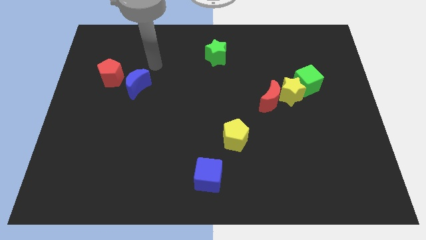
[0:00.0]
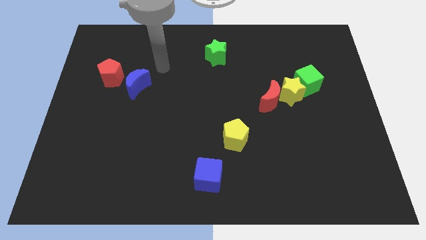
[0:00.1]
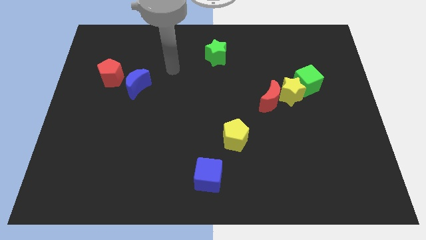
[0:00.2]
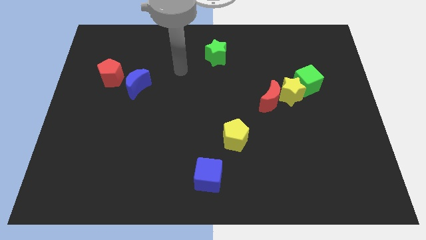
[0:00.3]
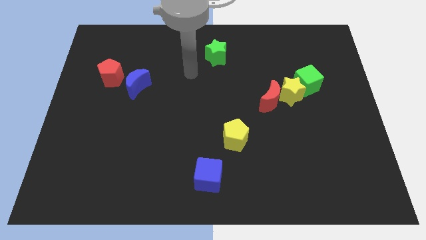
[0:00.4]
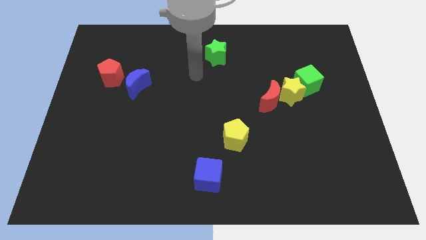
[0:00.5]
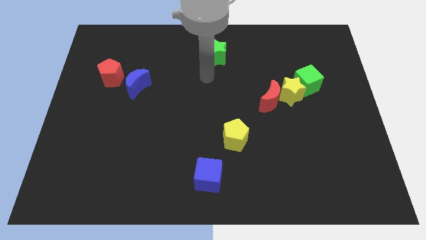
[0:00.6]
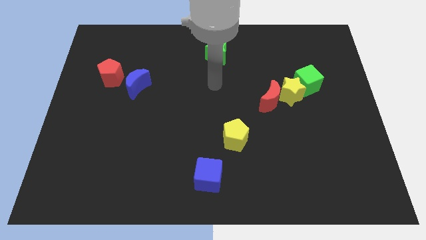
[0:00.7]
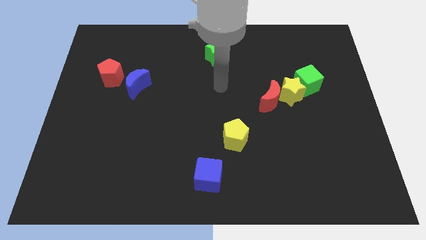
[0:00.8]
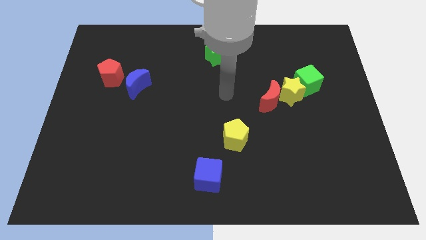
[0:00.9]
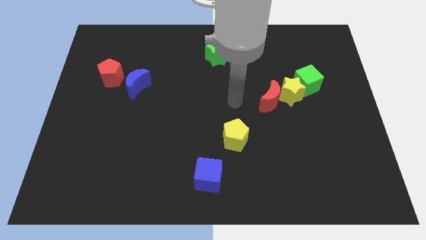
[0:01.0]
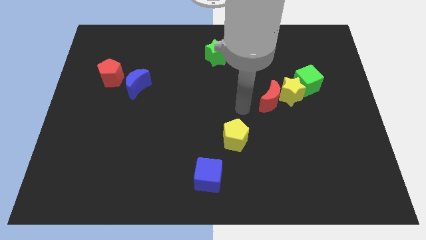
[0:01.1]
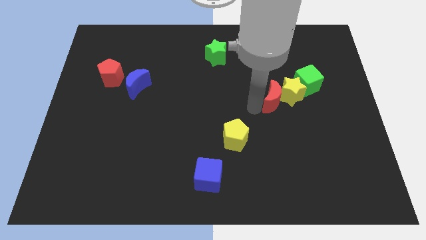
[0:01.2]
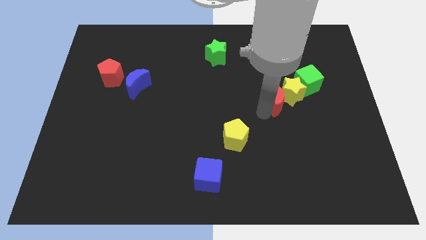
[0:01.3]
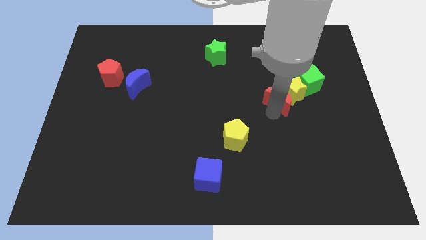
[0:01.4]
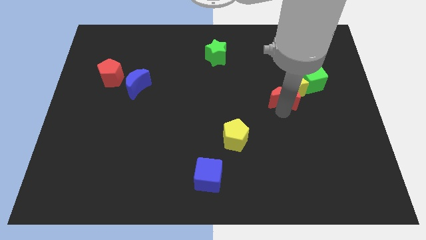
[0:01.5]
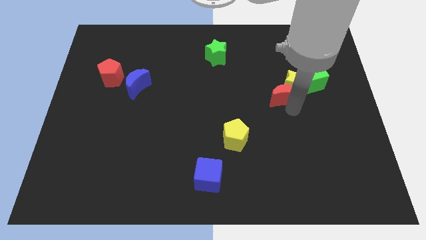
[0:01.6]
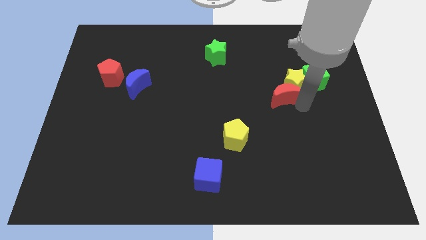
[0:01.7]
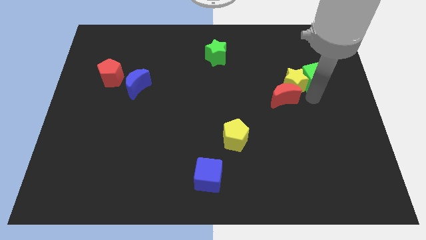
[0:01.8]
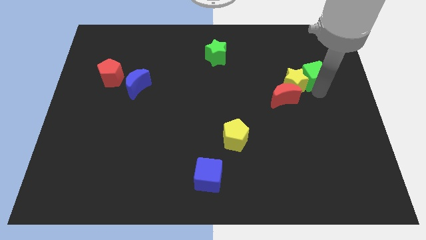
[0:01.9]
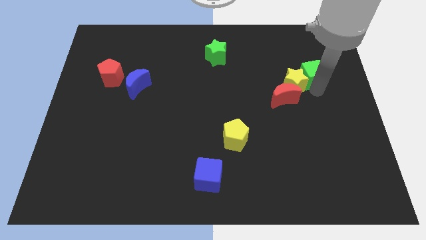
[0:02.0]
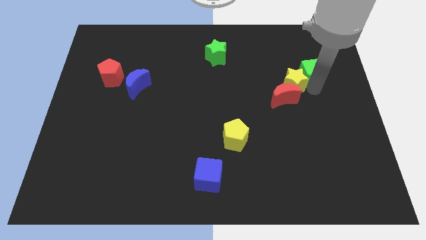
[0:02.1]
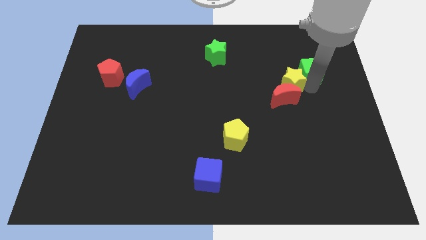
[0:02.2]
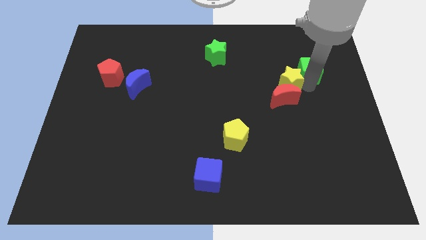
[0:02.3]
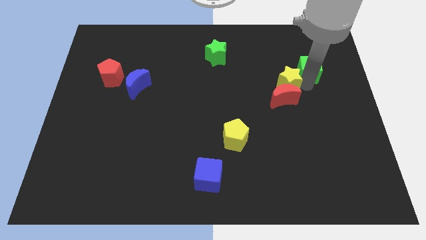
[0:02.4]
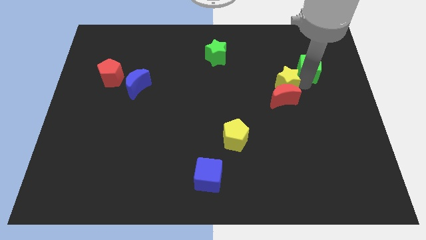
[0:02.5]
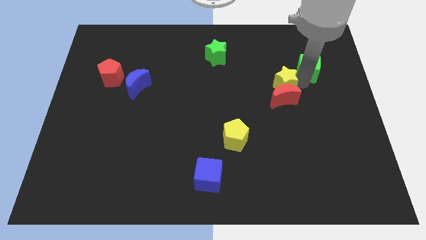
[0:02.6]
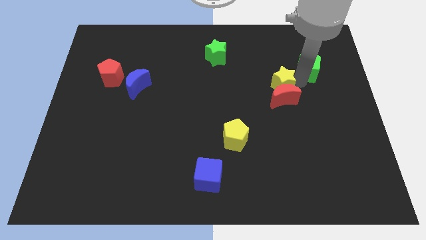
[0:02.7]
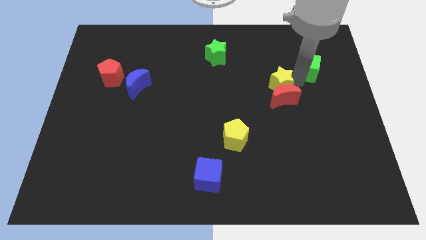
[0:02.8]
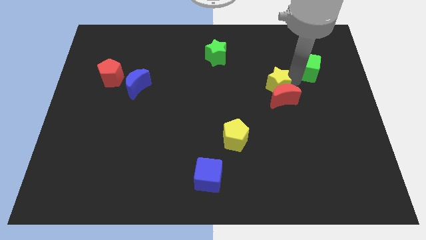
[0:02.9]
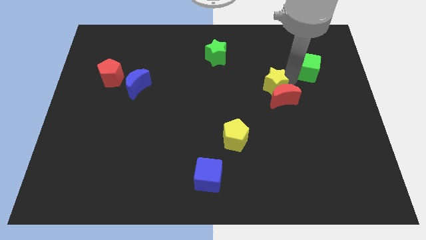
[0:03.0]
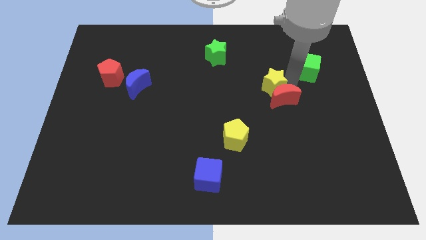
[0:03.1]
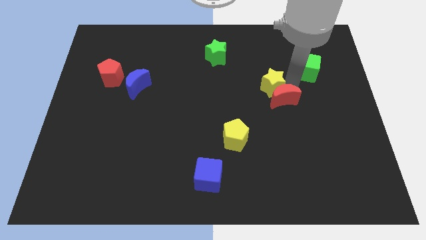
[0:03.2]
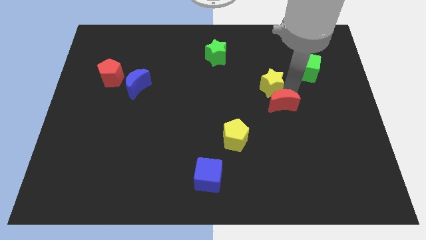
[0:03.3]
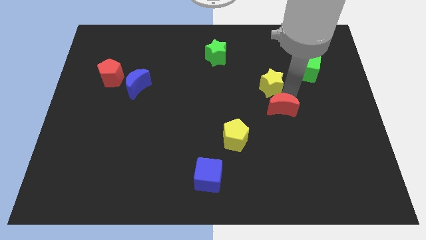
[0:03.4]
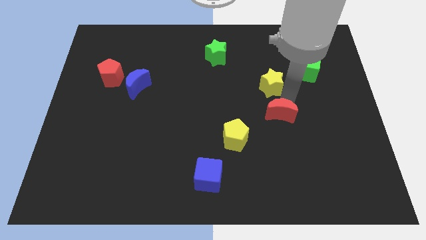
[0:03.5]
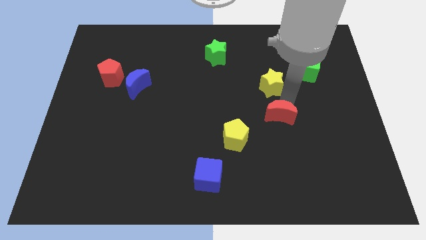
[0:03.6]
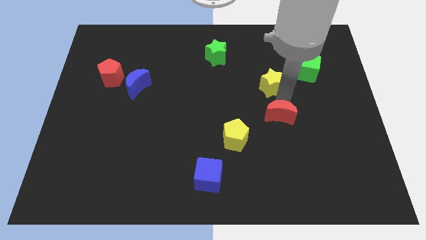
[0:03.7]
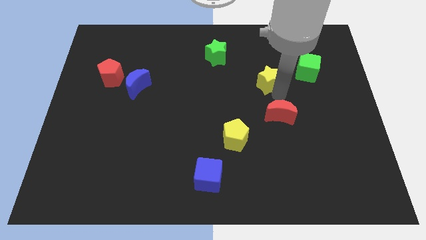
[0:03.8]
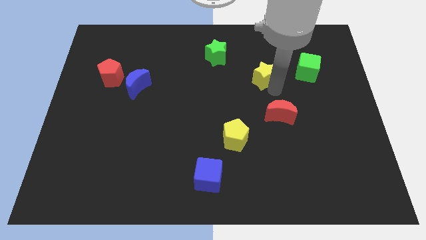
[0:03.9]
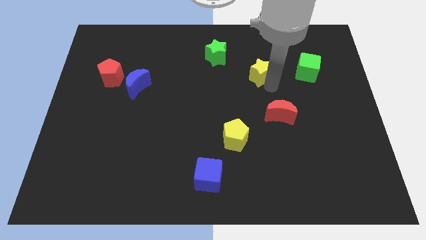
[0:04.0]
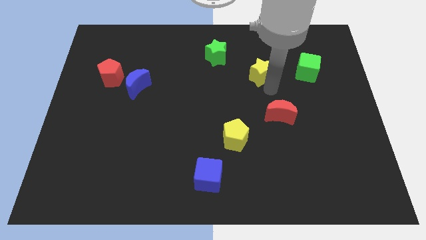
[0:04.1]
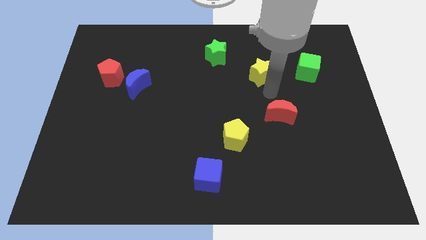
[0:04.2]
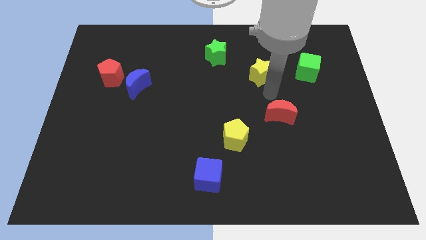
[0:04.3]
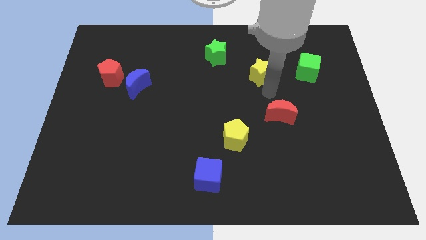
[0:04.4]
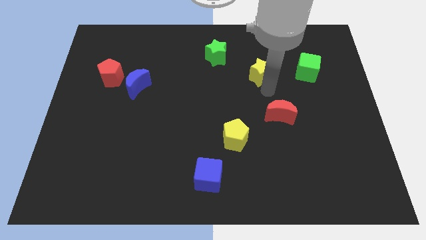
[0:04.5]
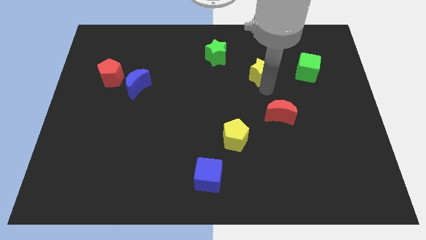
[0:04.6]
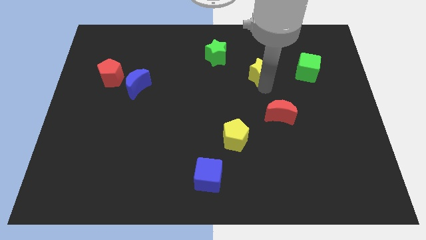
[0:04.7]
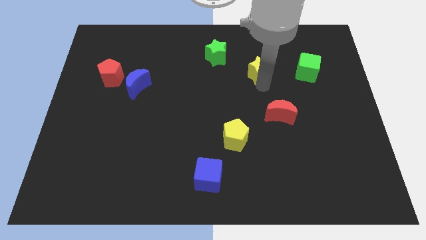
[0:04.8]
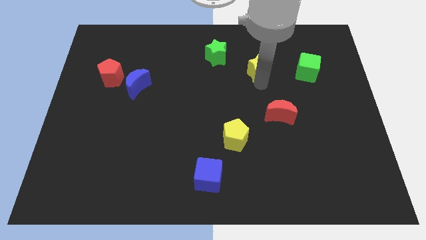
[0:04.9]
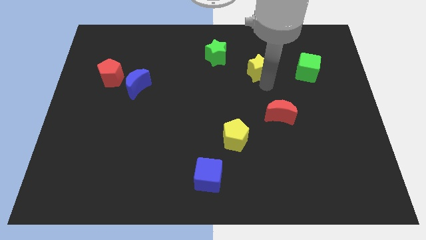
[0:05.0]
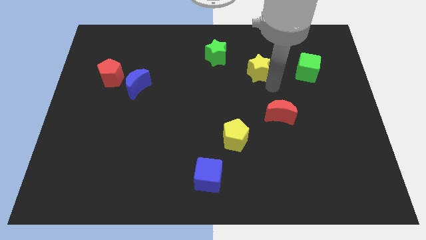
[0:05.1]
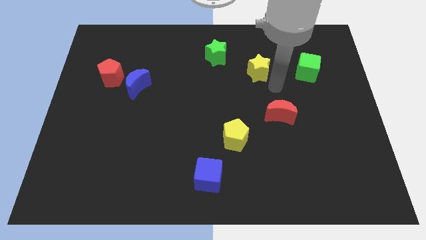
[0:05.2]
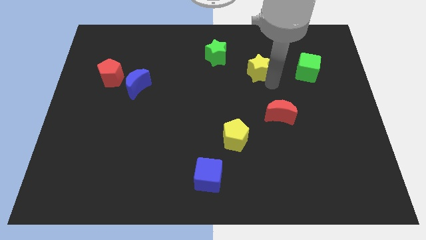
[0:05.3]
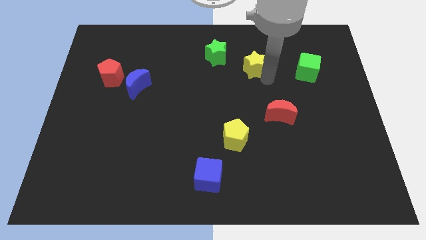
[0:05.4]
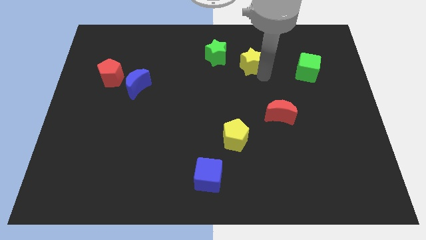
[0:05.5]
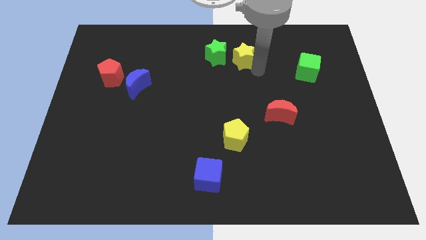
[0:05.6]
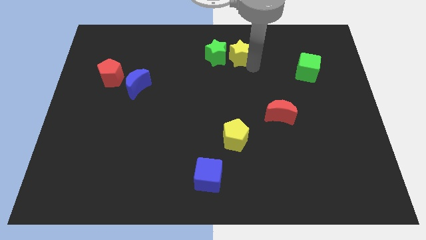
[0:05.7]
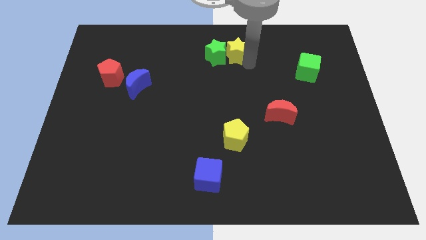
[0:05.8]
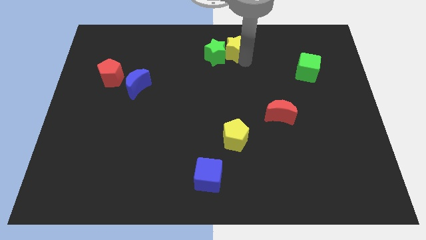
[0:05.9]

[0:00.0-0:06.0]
move the yellow star to the top
